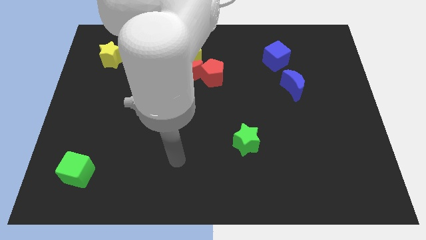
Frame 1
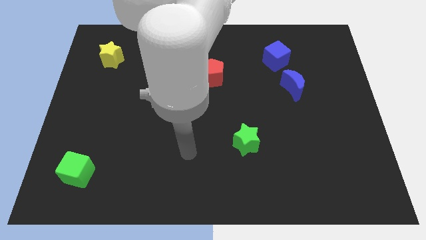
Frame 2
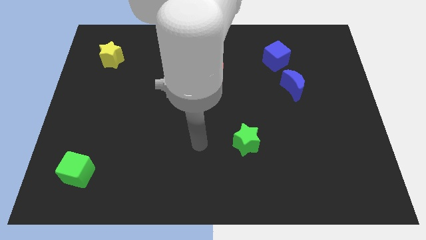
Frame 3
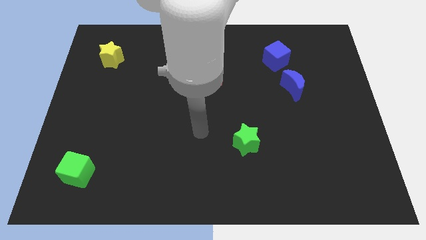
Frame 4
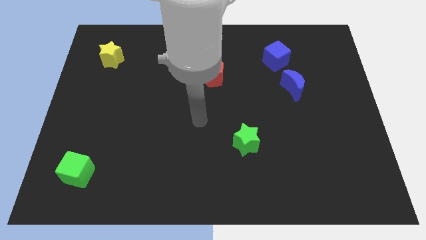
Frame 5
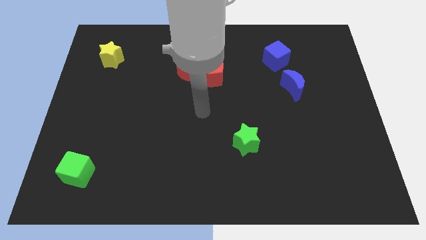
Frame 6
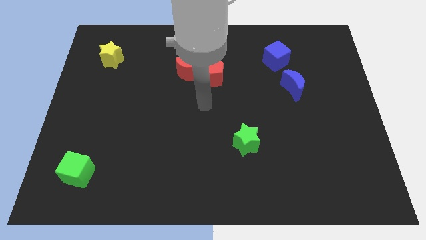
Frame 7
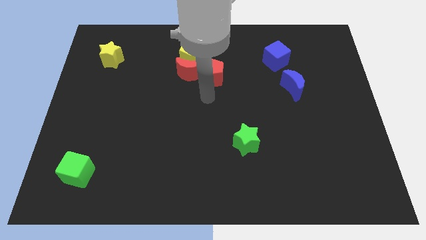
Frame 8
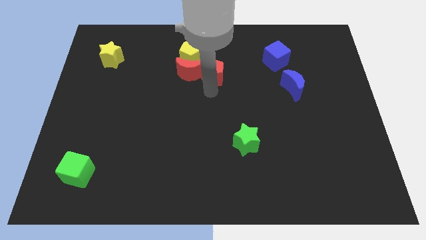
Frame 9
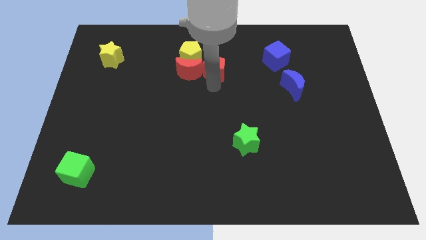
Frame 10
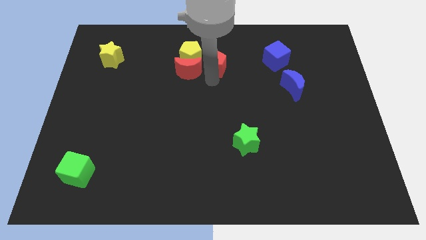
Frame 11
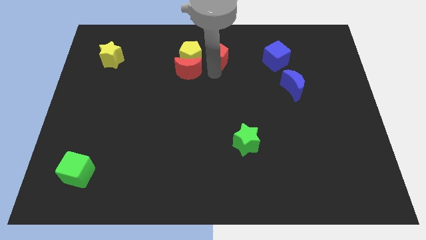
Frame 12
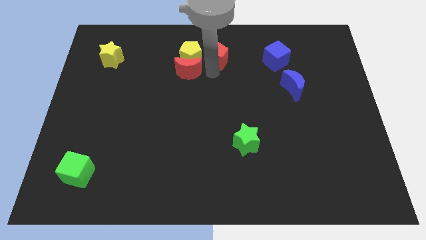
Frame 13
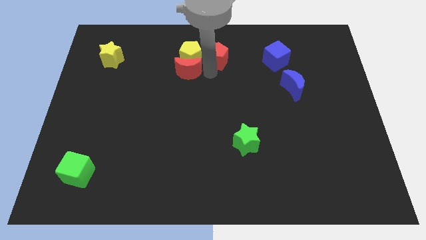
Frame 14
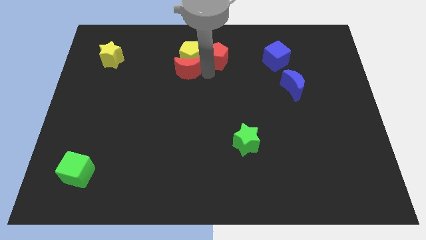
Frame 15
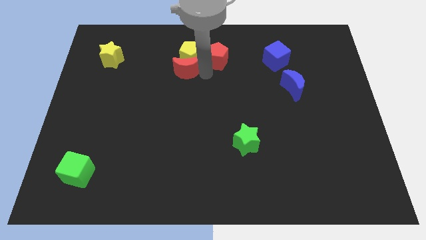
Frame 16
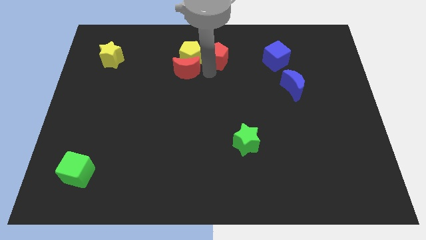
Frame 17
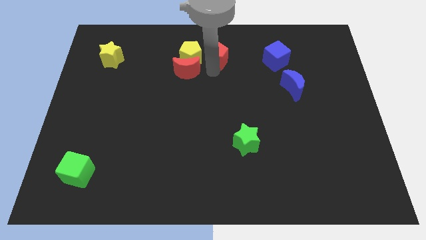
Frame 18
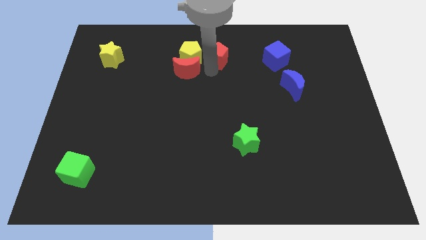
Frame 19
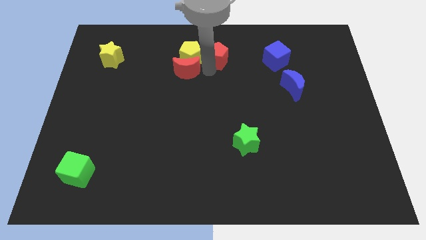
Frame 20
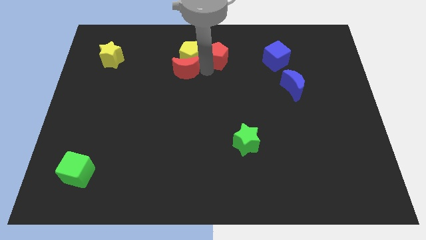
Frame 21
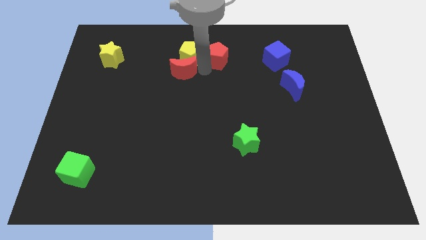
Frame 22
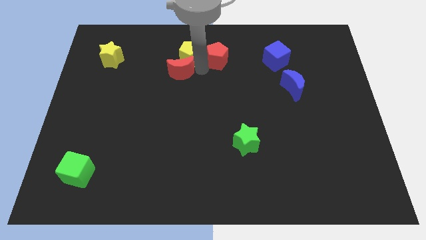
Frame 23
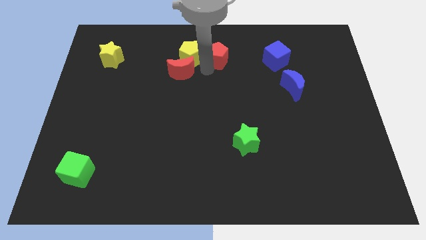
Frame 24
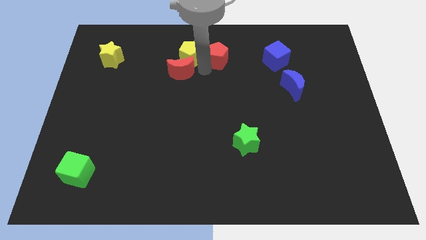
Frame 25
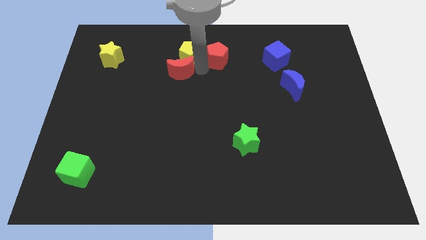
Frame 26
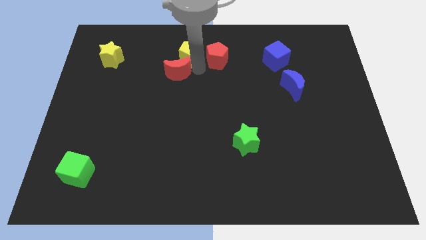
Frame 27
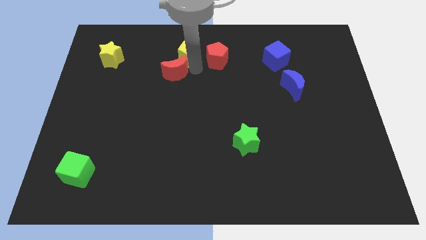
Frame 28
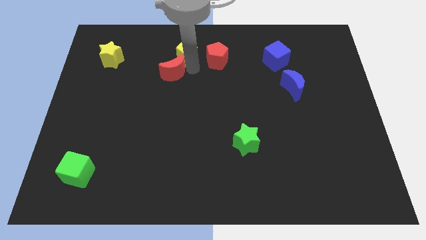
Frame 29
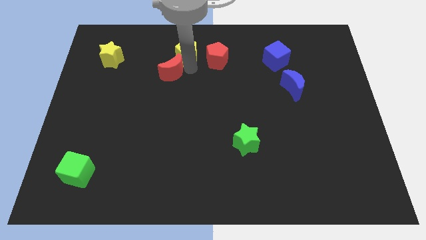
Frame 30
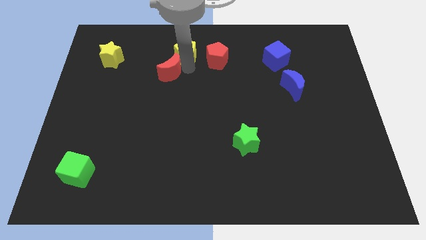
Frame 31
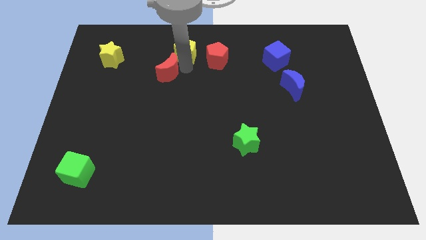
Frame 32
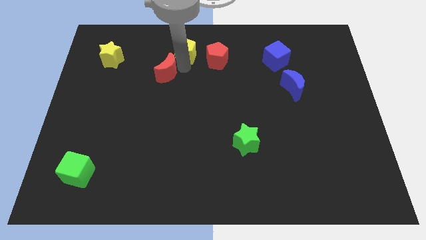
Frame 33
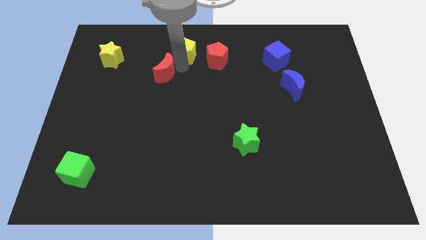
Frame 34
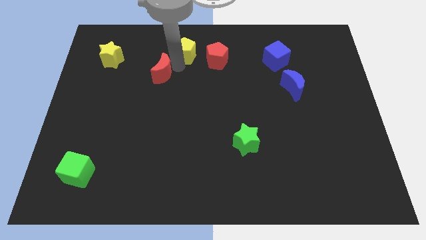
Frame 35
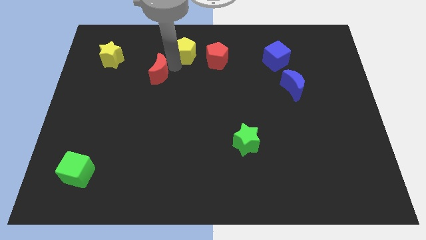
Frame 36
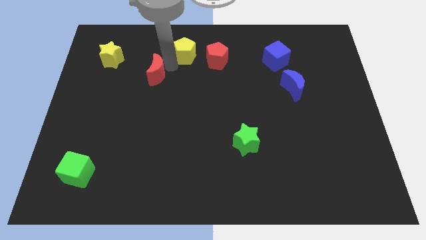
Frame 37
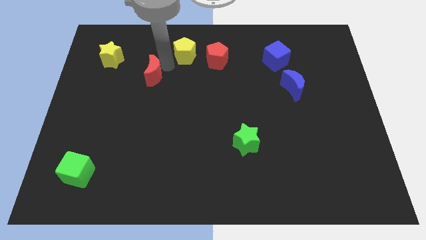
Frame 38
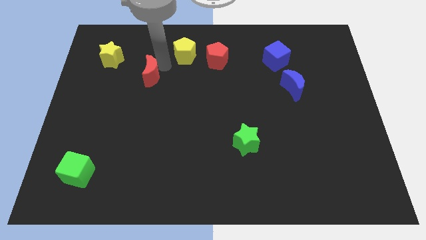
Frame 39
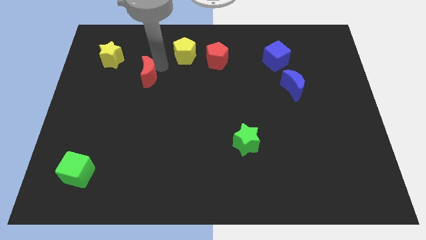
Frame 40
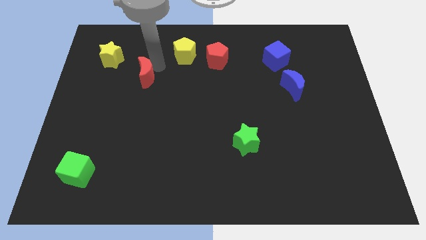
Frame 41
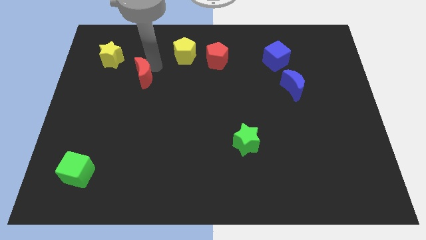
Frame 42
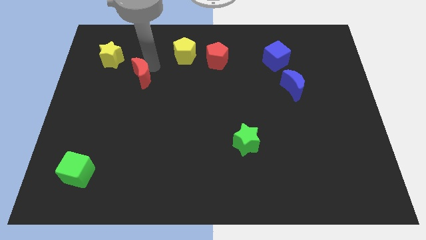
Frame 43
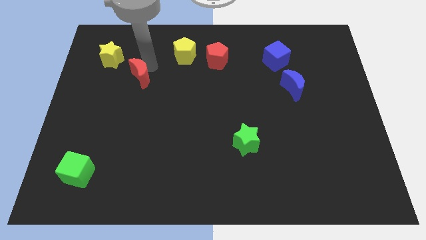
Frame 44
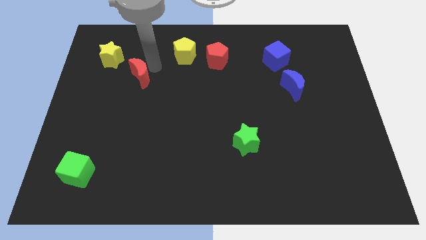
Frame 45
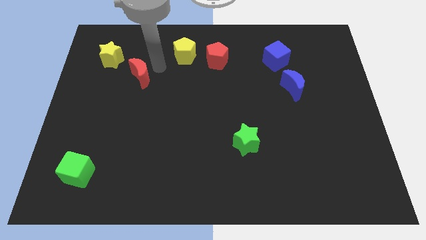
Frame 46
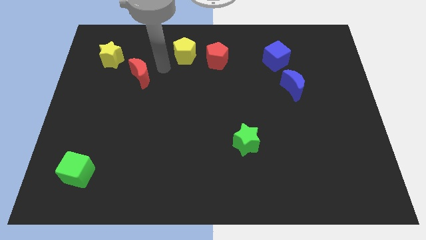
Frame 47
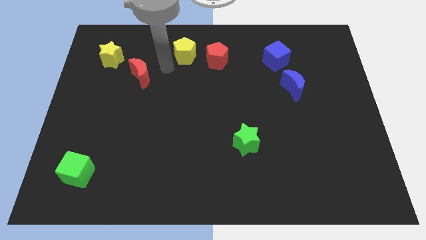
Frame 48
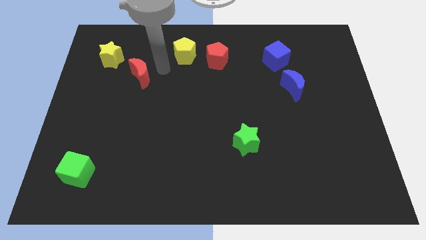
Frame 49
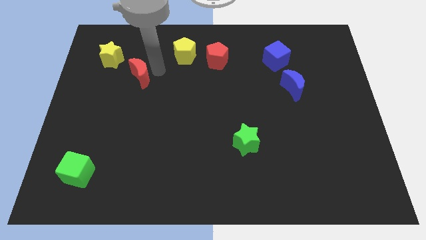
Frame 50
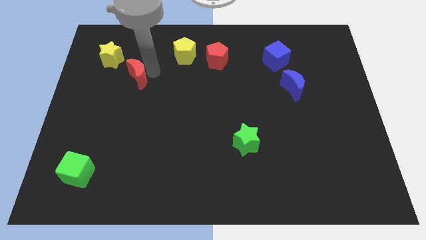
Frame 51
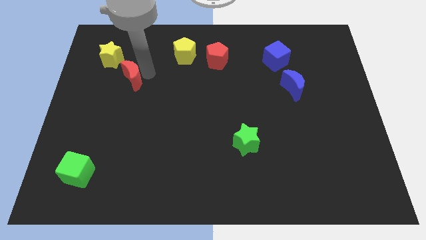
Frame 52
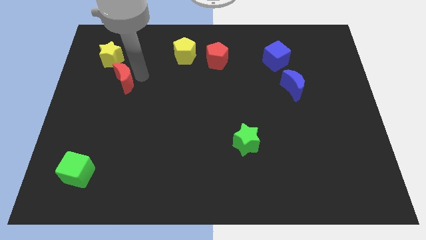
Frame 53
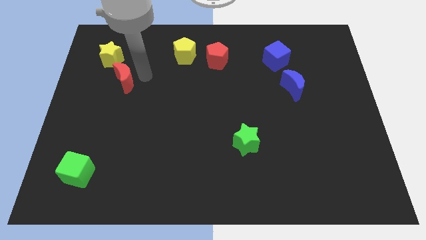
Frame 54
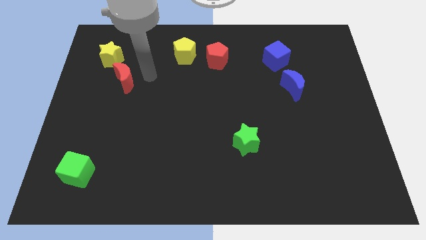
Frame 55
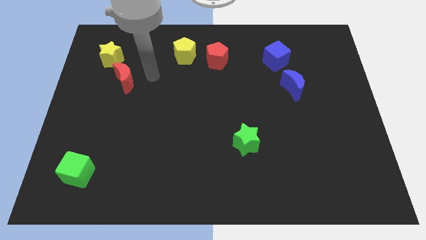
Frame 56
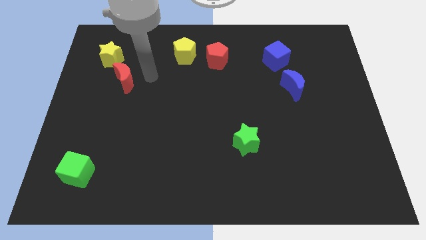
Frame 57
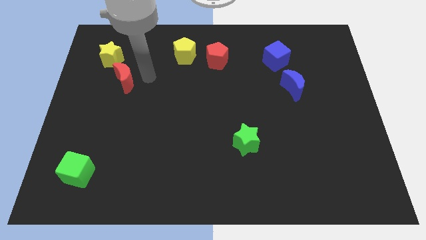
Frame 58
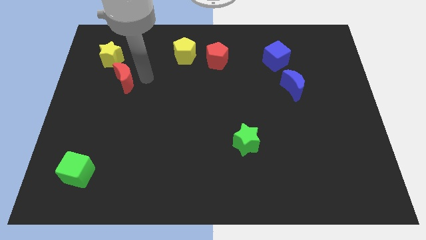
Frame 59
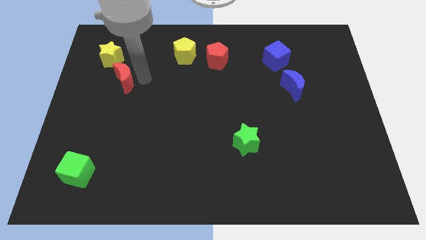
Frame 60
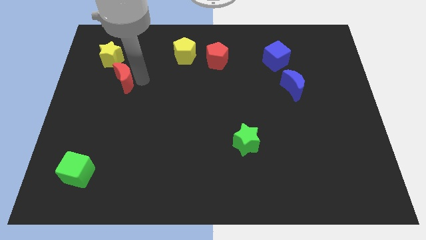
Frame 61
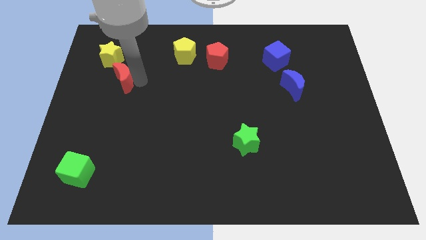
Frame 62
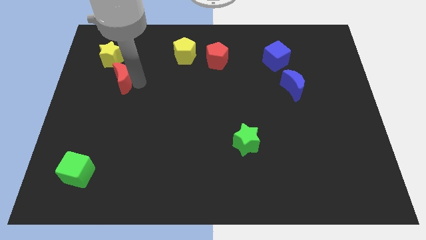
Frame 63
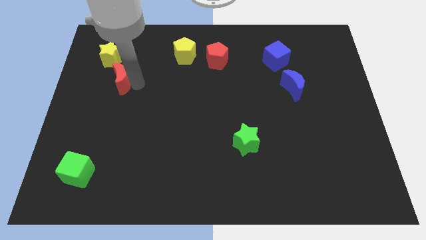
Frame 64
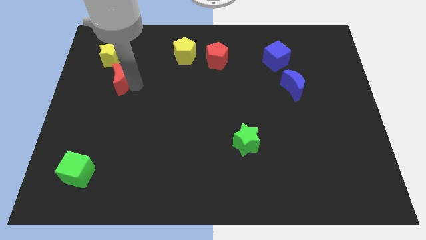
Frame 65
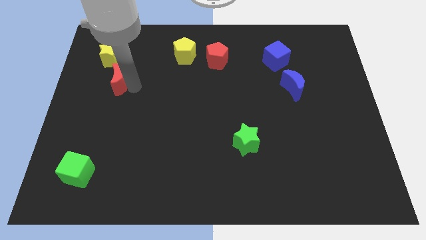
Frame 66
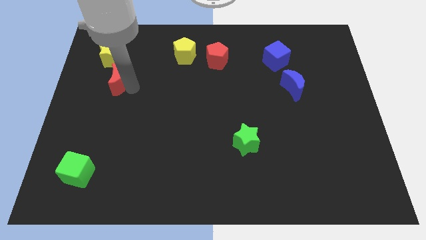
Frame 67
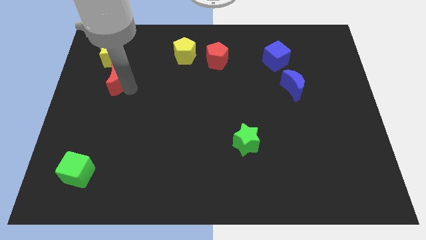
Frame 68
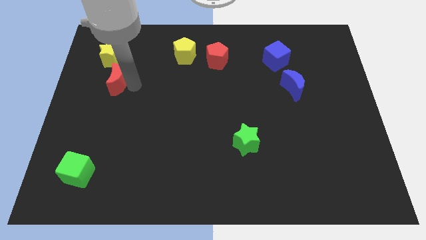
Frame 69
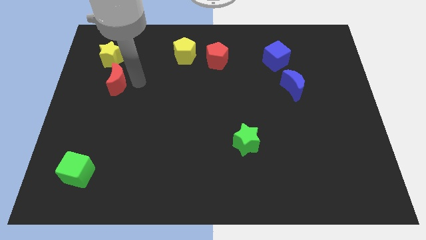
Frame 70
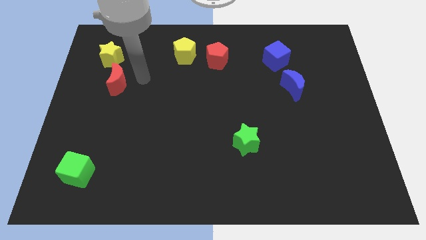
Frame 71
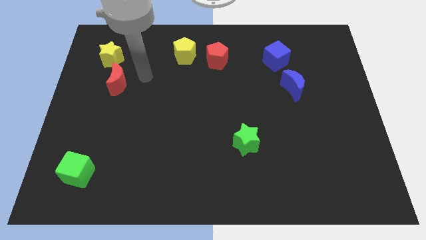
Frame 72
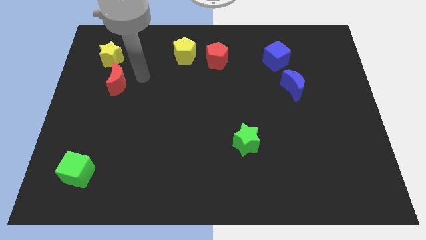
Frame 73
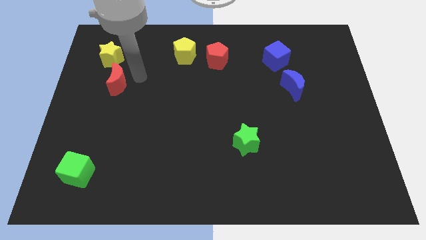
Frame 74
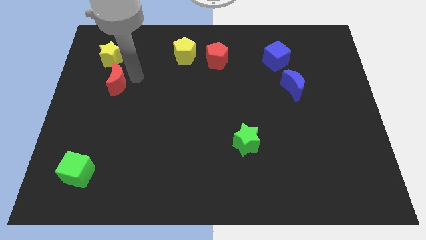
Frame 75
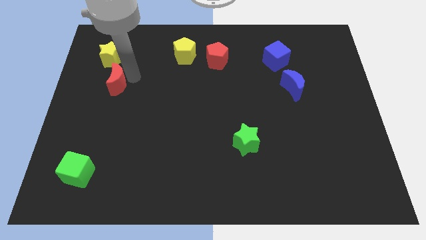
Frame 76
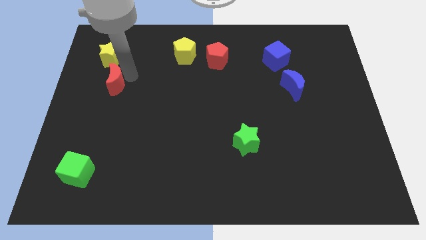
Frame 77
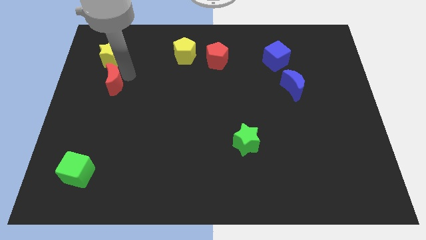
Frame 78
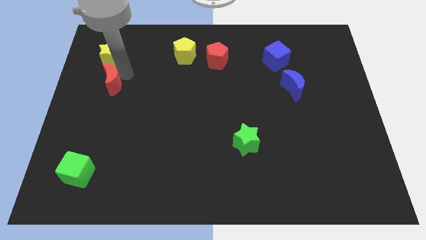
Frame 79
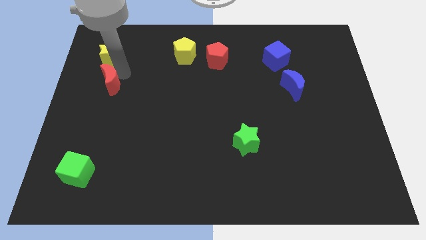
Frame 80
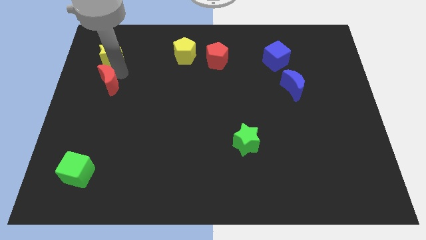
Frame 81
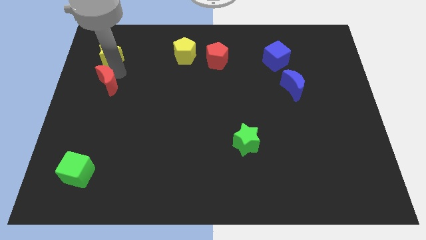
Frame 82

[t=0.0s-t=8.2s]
move the red moon to the left side
